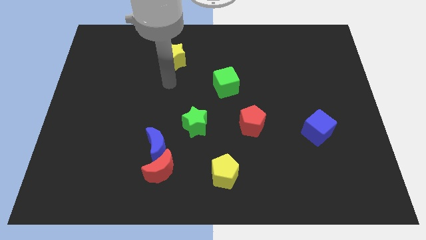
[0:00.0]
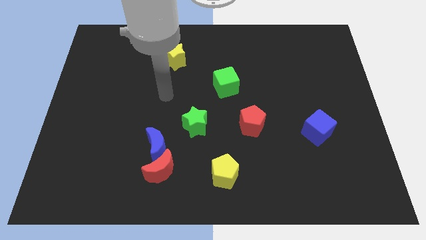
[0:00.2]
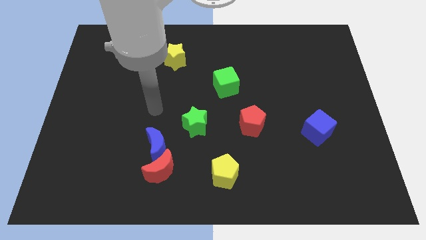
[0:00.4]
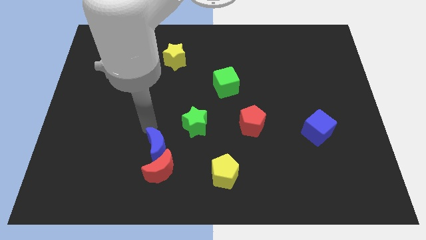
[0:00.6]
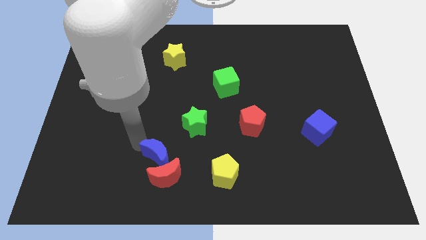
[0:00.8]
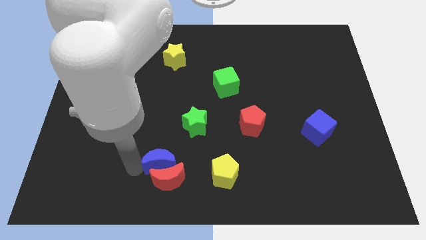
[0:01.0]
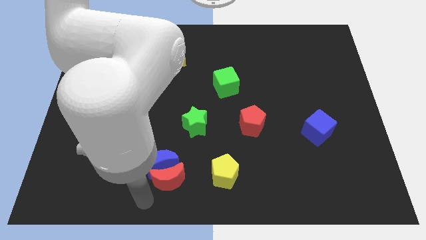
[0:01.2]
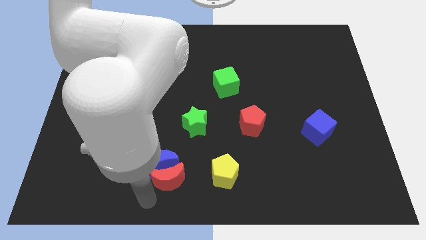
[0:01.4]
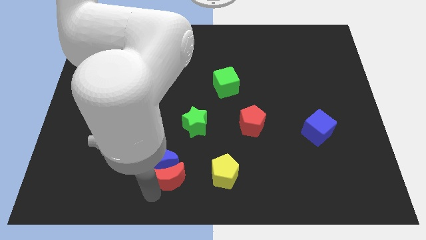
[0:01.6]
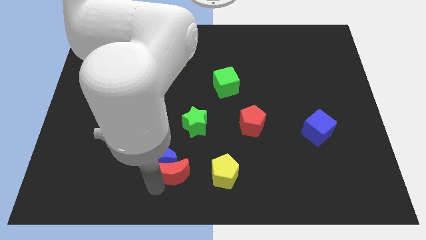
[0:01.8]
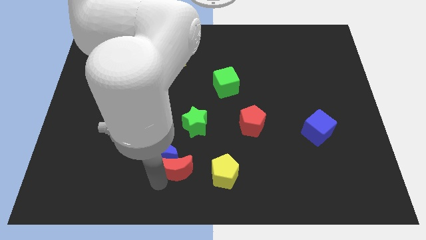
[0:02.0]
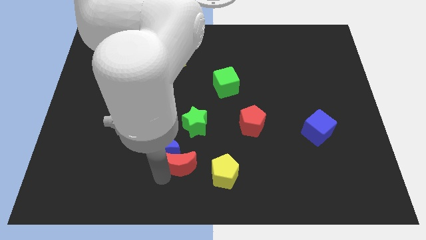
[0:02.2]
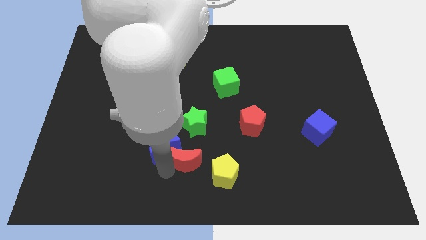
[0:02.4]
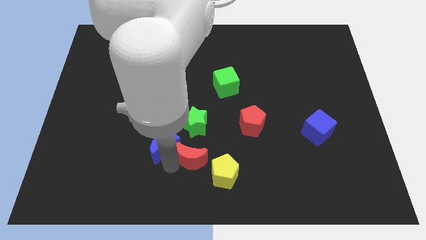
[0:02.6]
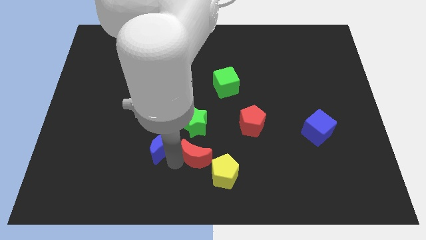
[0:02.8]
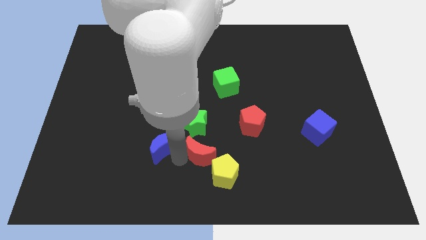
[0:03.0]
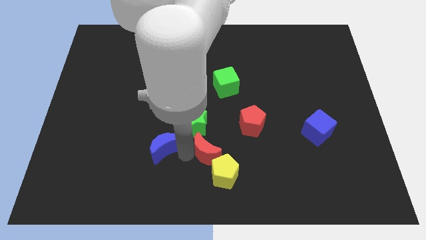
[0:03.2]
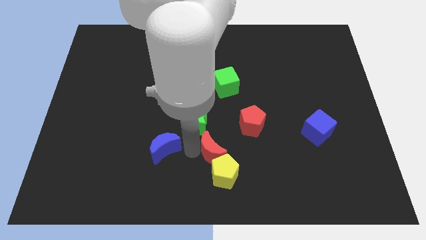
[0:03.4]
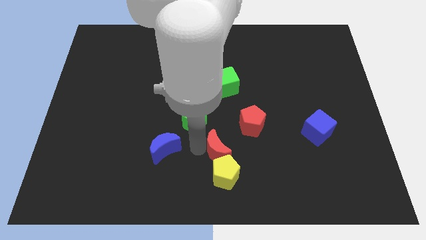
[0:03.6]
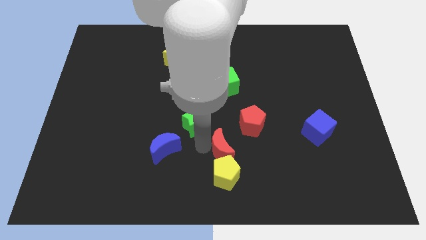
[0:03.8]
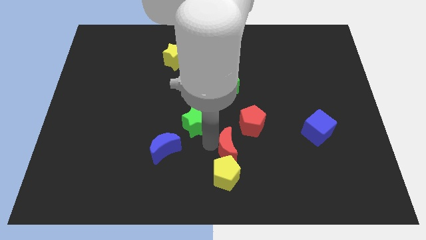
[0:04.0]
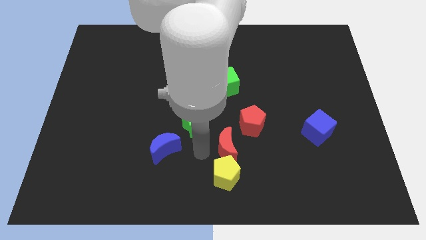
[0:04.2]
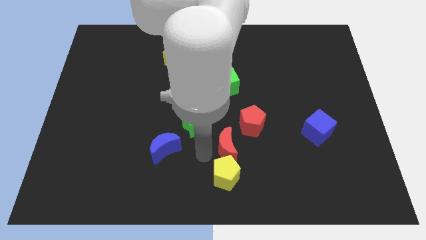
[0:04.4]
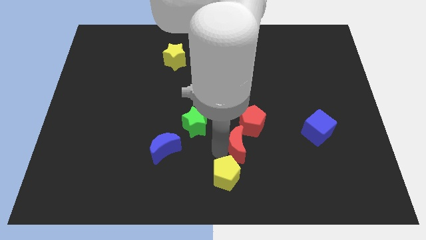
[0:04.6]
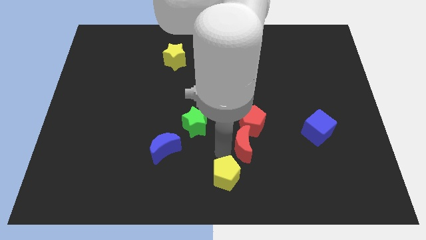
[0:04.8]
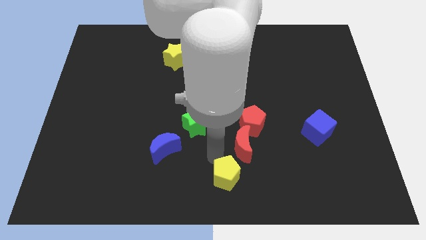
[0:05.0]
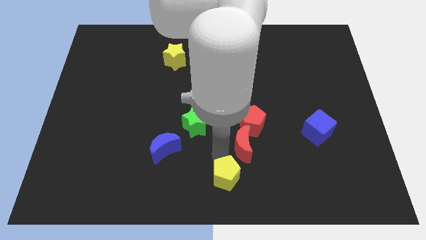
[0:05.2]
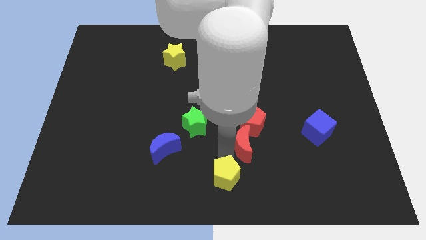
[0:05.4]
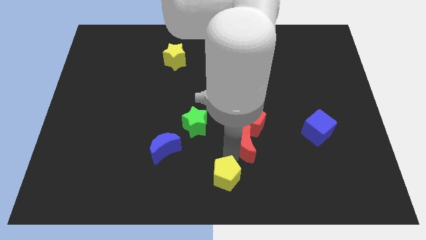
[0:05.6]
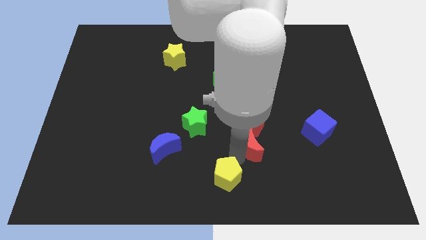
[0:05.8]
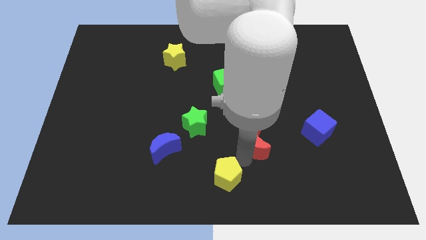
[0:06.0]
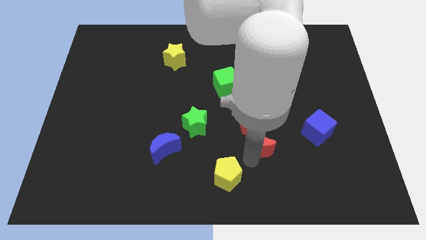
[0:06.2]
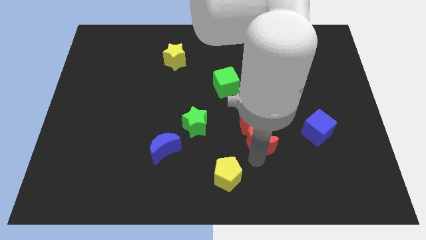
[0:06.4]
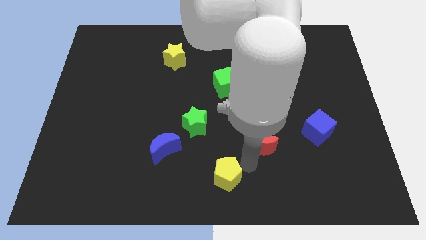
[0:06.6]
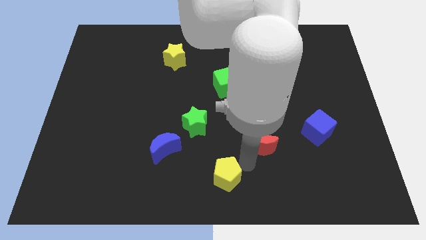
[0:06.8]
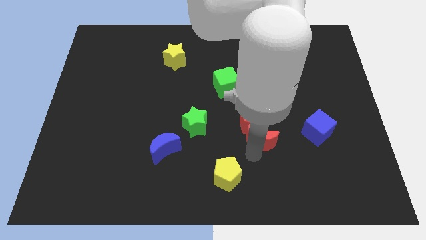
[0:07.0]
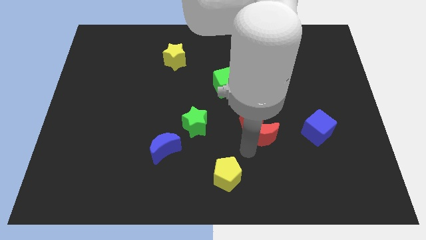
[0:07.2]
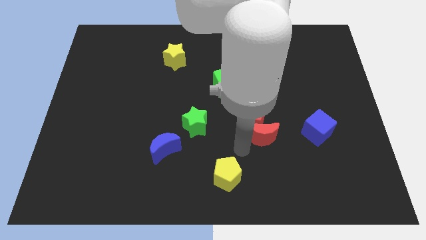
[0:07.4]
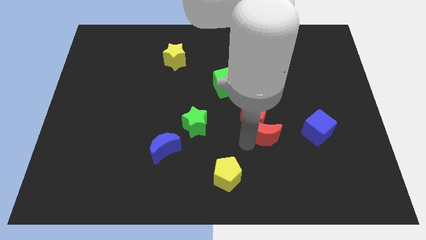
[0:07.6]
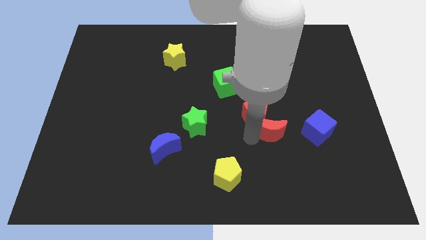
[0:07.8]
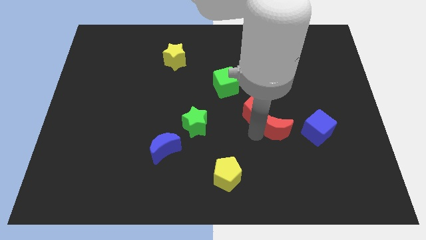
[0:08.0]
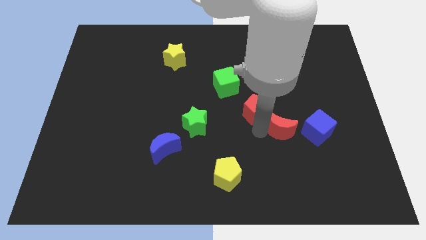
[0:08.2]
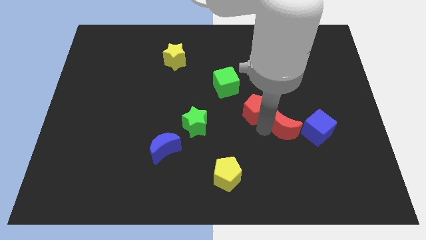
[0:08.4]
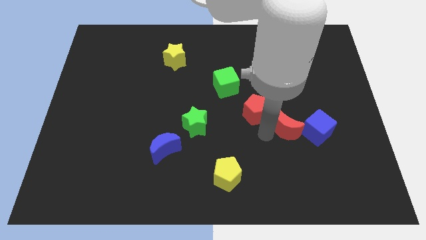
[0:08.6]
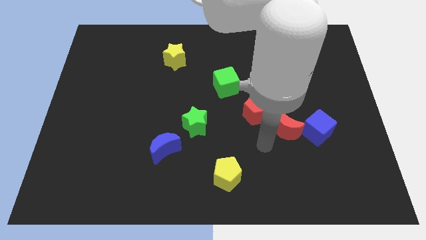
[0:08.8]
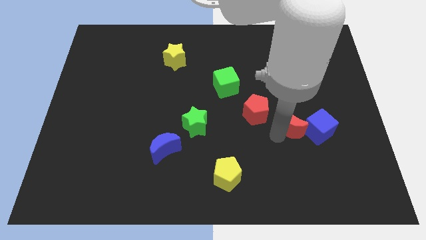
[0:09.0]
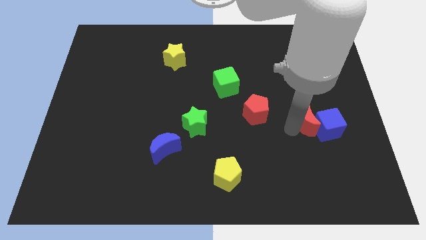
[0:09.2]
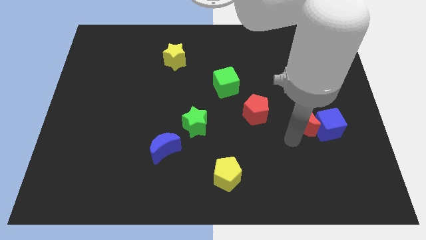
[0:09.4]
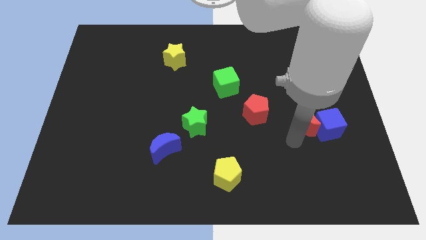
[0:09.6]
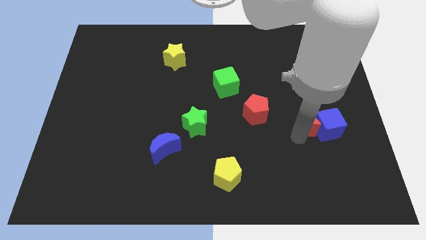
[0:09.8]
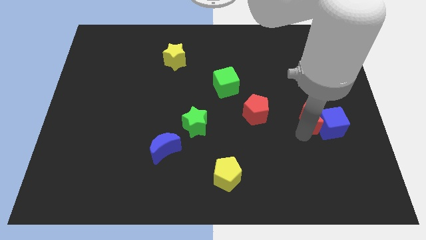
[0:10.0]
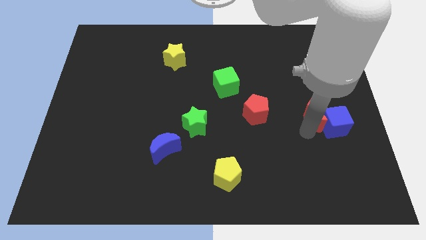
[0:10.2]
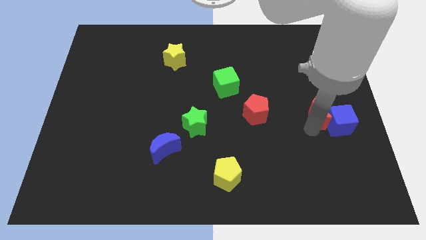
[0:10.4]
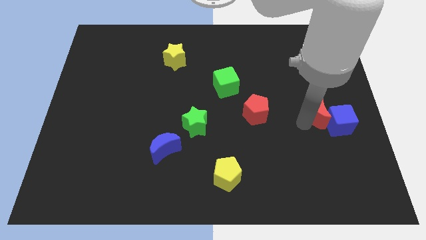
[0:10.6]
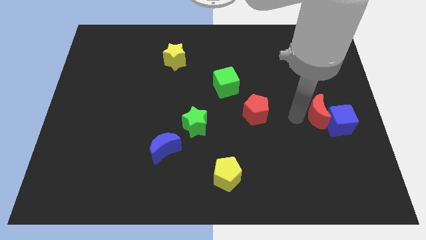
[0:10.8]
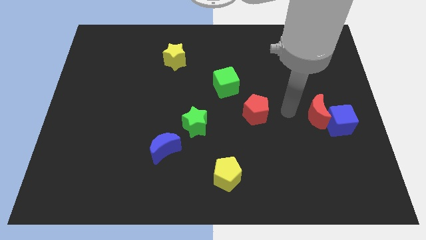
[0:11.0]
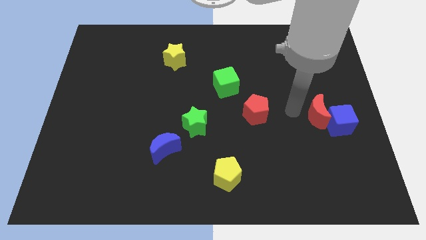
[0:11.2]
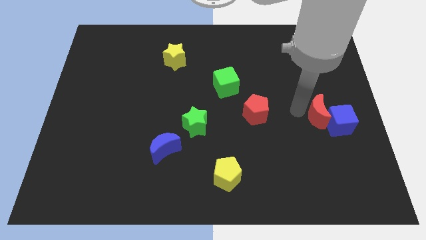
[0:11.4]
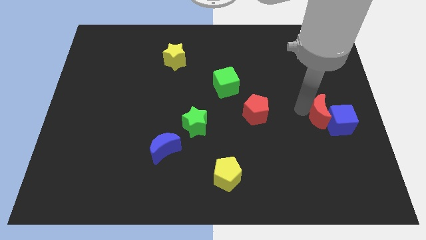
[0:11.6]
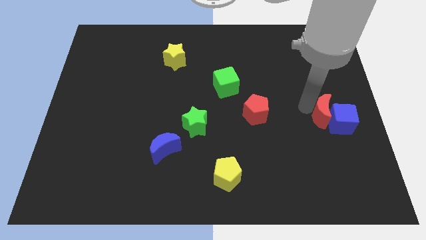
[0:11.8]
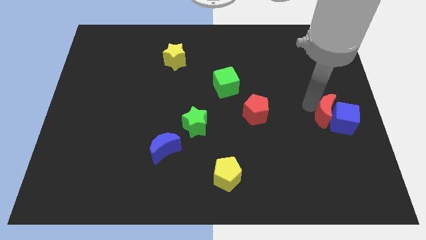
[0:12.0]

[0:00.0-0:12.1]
move the red moon to the center right

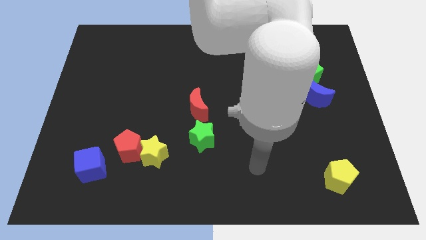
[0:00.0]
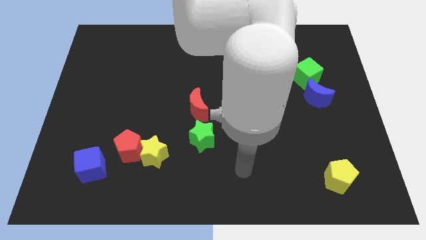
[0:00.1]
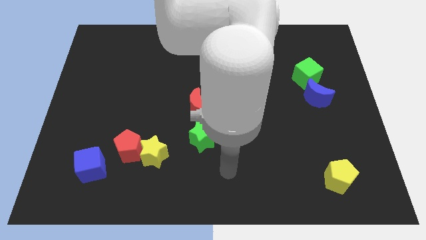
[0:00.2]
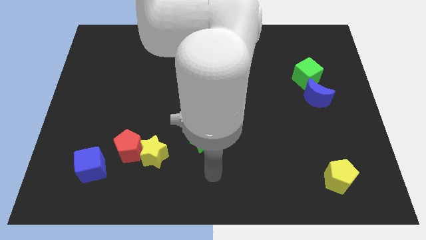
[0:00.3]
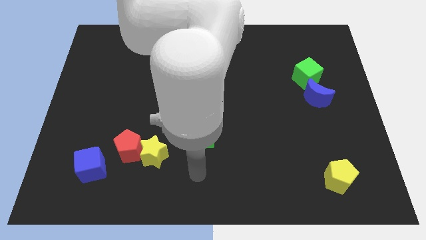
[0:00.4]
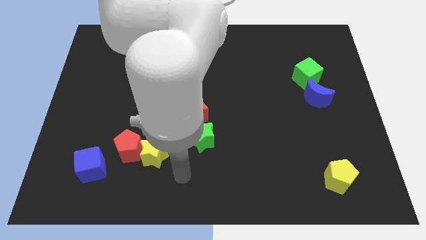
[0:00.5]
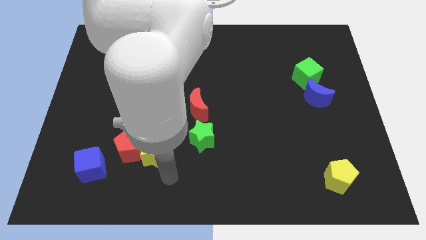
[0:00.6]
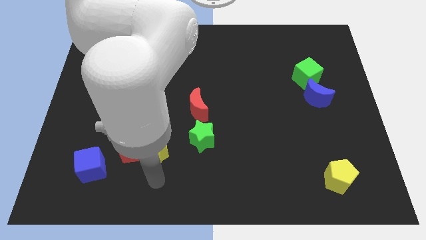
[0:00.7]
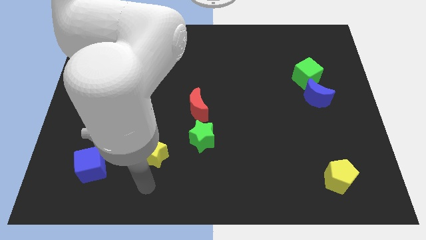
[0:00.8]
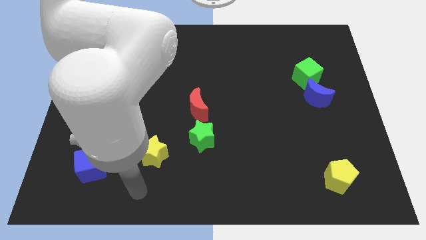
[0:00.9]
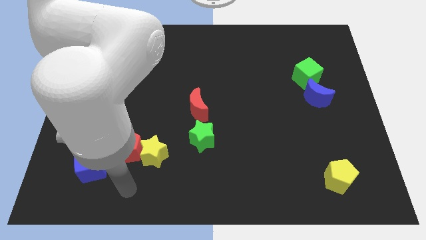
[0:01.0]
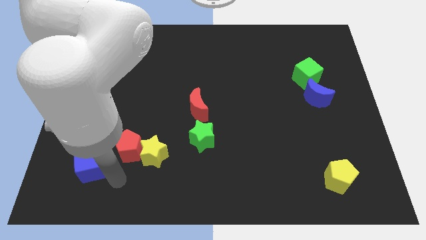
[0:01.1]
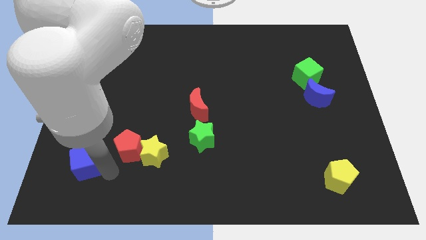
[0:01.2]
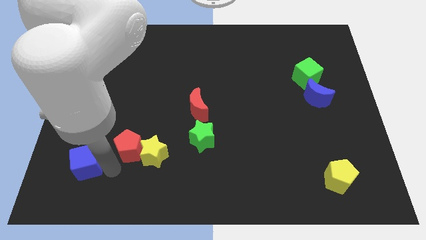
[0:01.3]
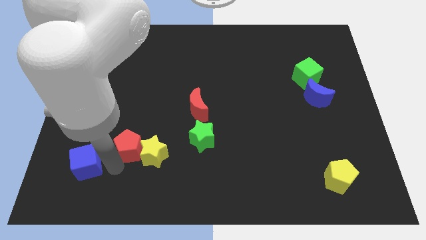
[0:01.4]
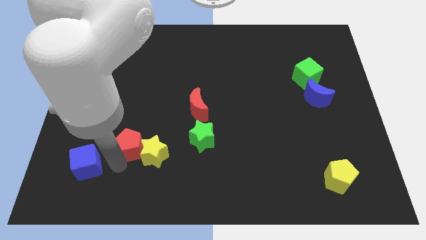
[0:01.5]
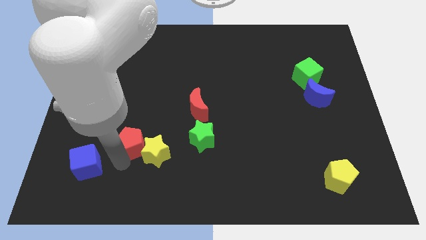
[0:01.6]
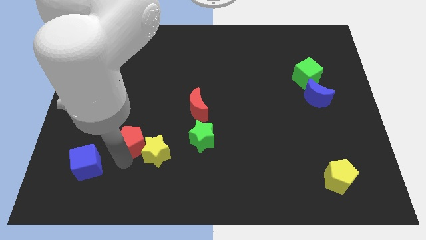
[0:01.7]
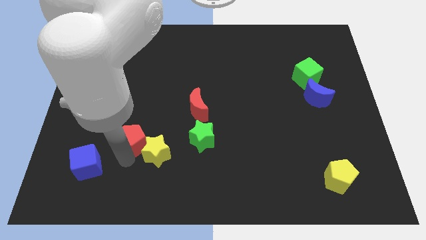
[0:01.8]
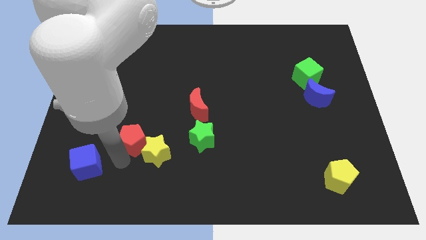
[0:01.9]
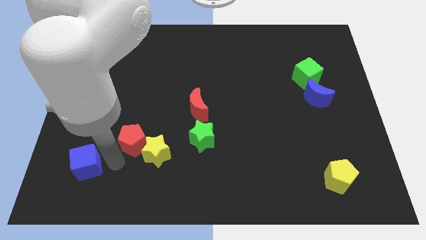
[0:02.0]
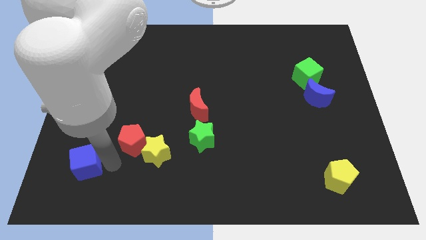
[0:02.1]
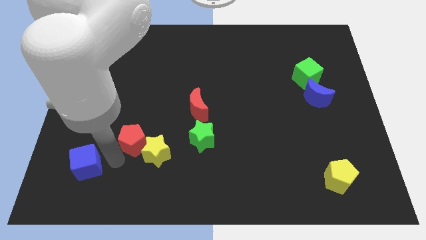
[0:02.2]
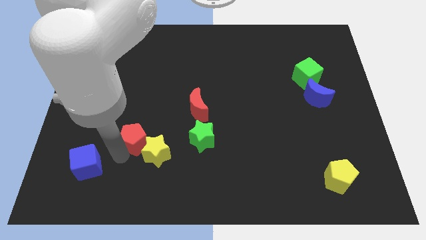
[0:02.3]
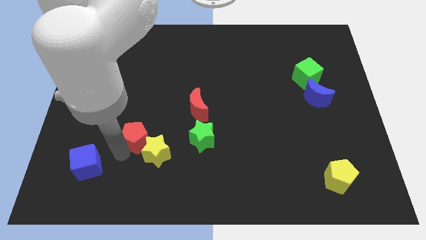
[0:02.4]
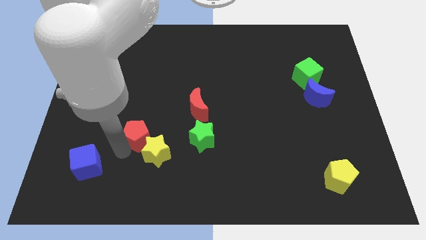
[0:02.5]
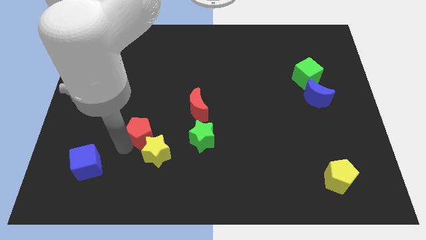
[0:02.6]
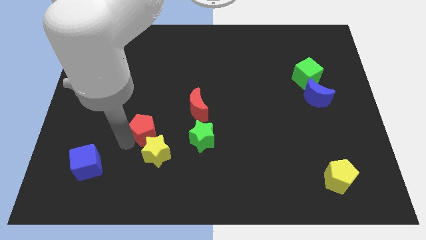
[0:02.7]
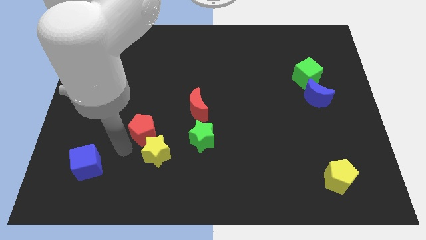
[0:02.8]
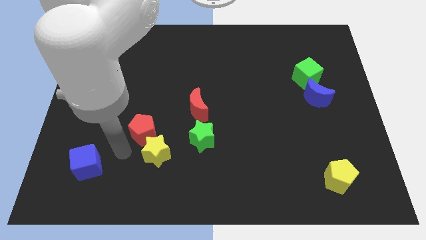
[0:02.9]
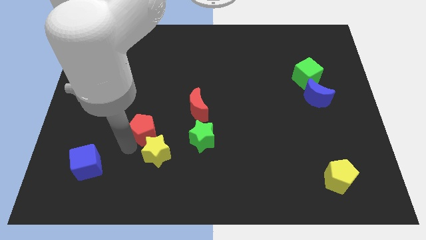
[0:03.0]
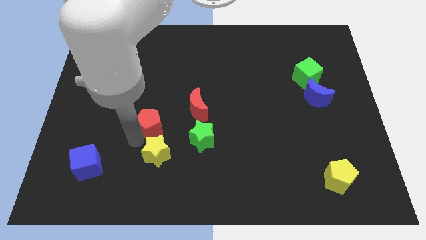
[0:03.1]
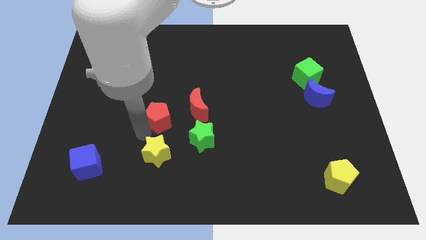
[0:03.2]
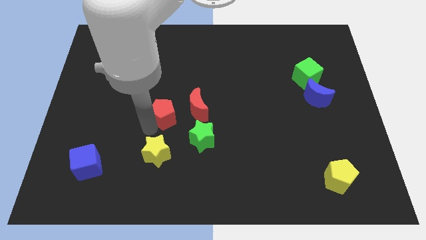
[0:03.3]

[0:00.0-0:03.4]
slide the red pentagon to the middle of the board
